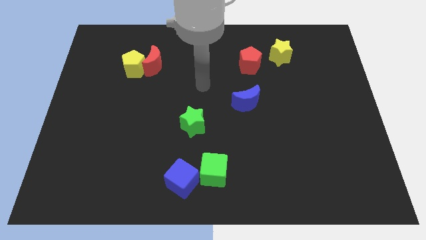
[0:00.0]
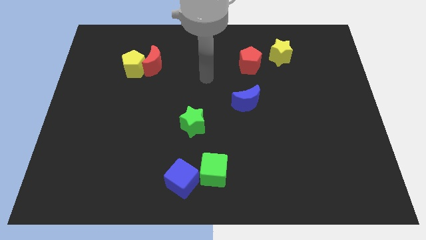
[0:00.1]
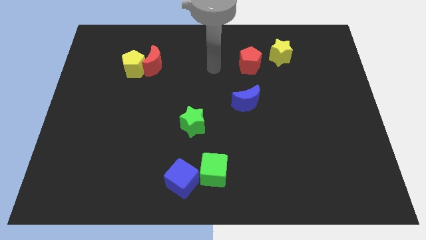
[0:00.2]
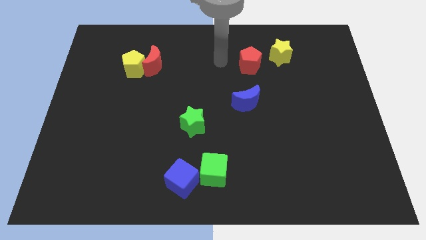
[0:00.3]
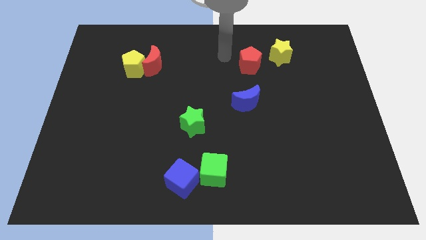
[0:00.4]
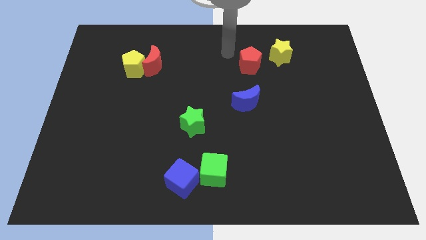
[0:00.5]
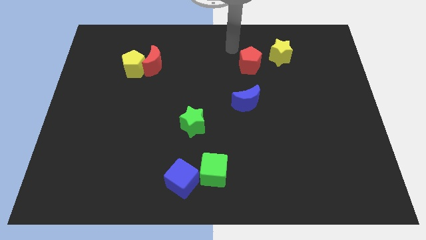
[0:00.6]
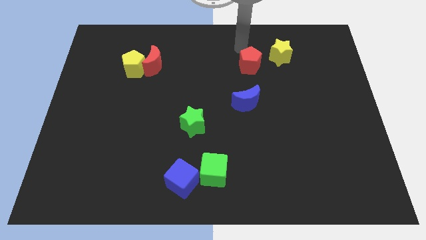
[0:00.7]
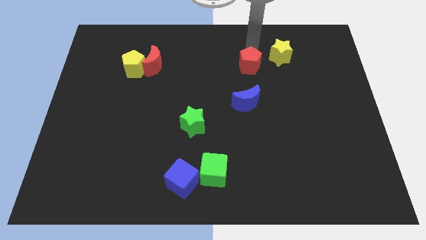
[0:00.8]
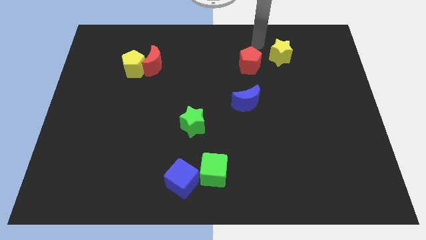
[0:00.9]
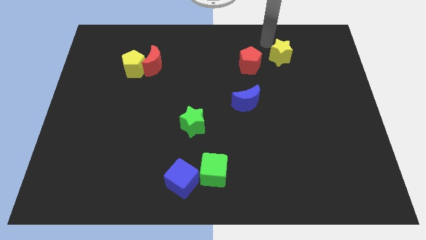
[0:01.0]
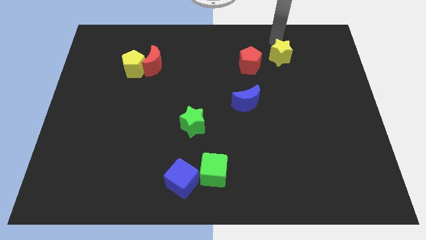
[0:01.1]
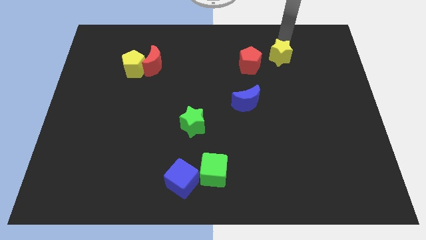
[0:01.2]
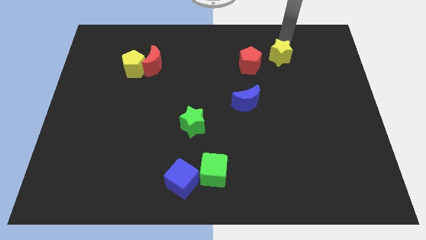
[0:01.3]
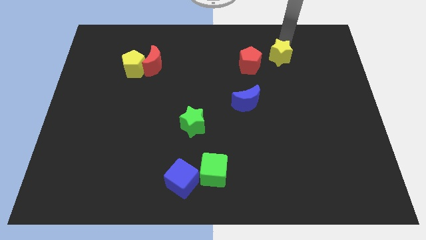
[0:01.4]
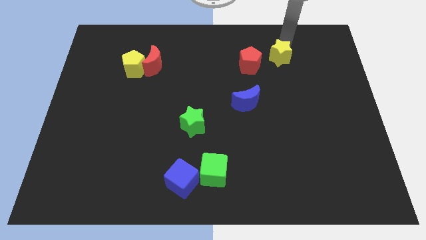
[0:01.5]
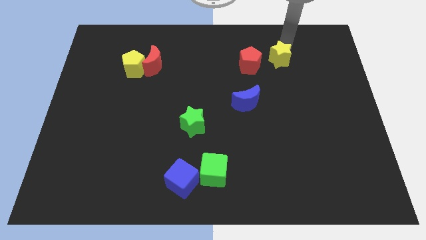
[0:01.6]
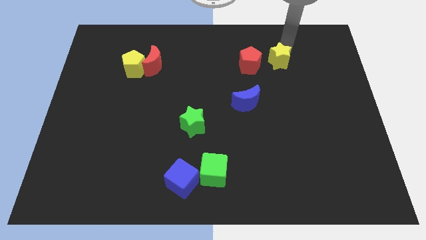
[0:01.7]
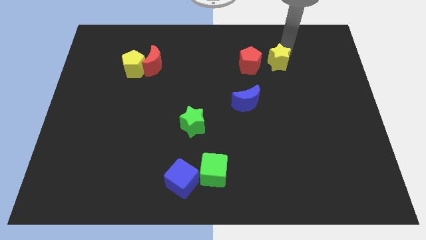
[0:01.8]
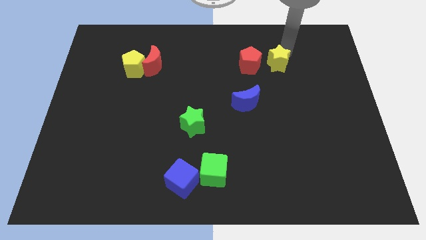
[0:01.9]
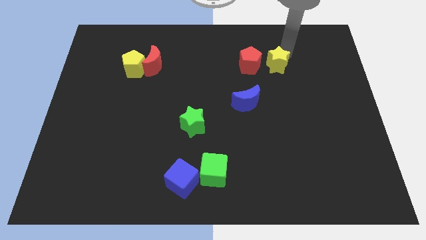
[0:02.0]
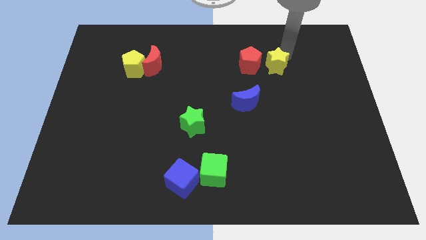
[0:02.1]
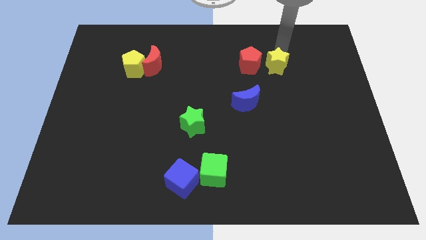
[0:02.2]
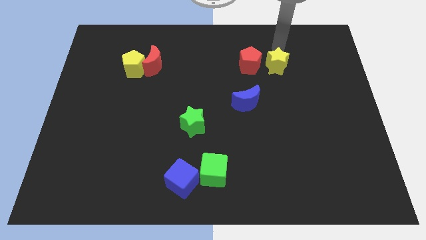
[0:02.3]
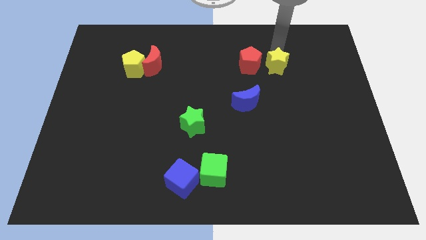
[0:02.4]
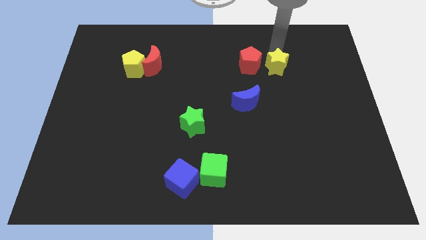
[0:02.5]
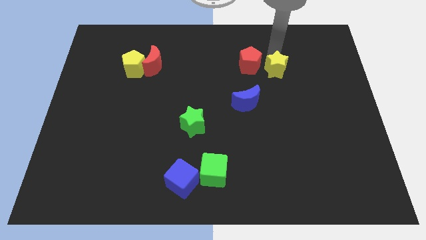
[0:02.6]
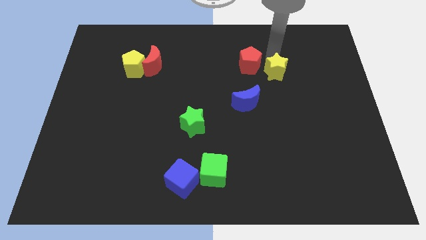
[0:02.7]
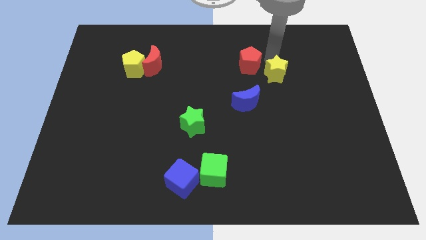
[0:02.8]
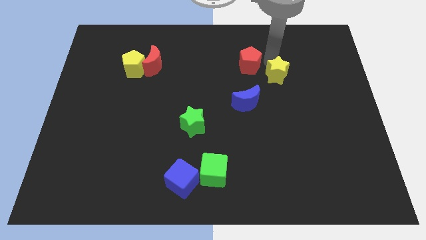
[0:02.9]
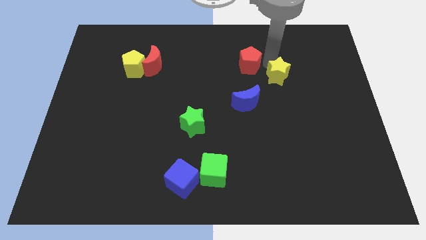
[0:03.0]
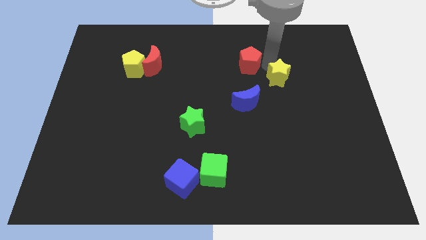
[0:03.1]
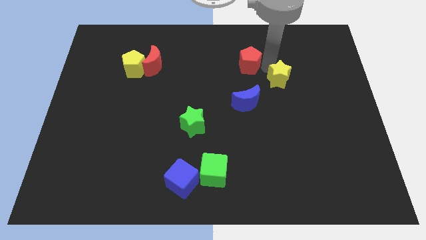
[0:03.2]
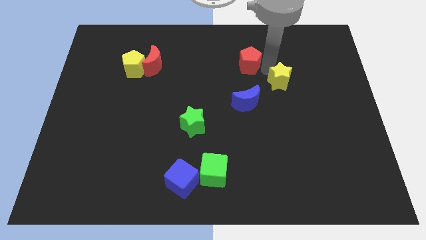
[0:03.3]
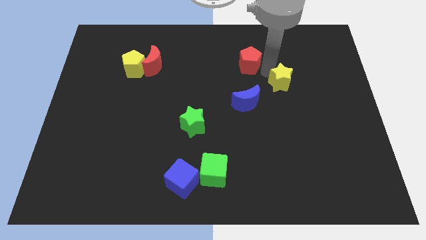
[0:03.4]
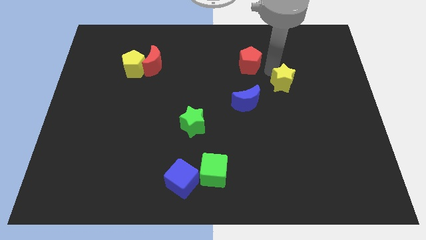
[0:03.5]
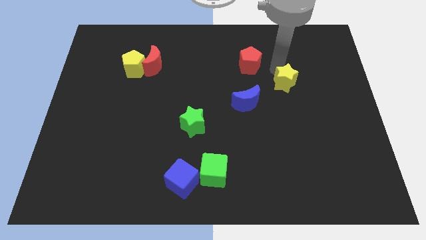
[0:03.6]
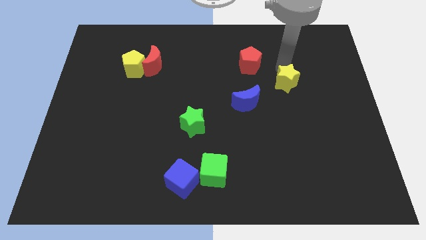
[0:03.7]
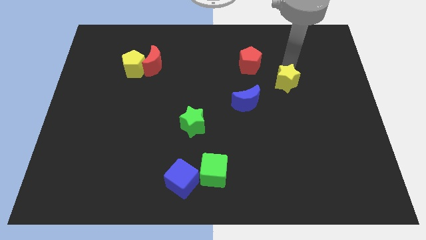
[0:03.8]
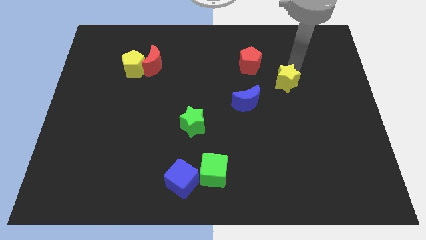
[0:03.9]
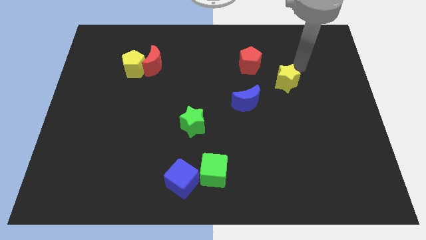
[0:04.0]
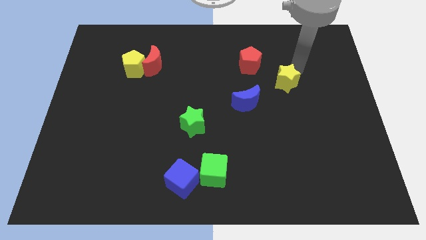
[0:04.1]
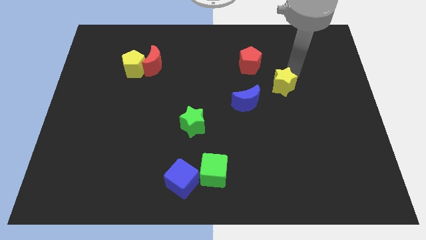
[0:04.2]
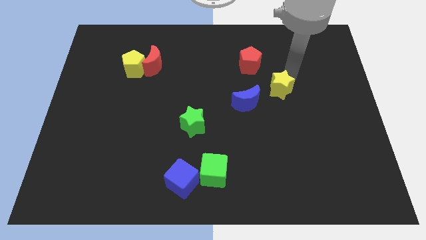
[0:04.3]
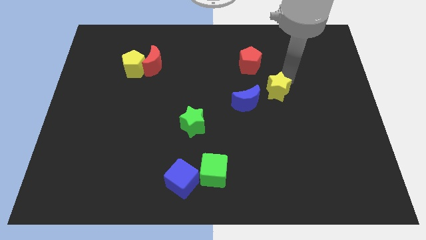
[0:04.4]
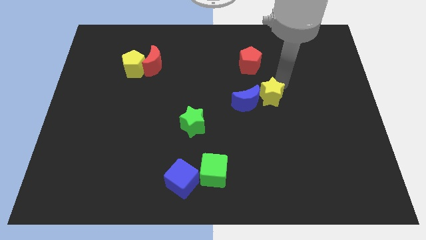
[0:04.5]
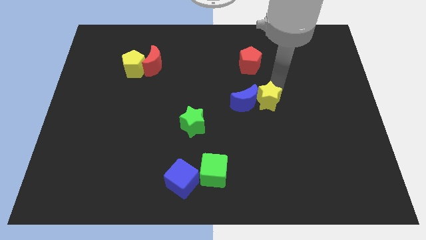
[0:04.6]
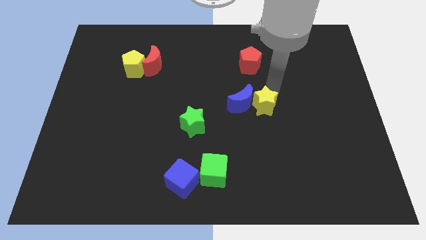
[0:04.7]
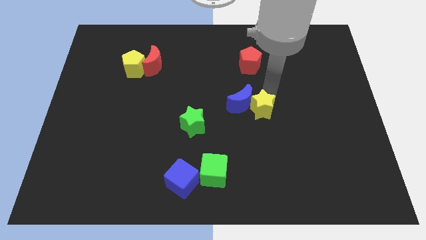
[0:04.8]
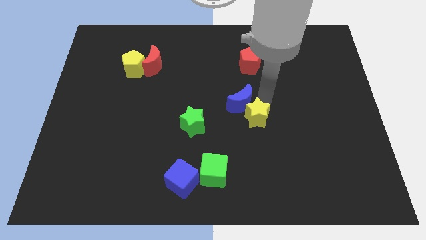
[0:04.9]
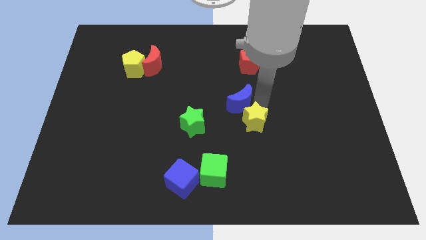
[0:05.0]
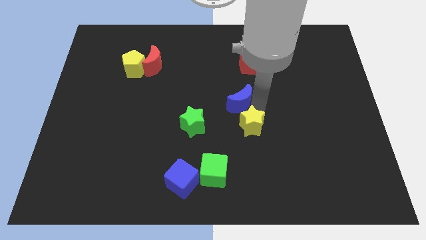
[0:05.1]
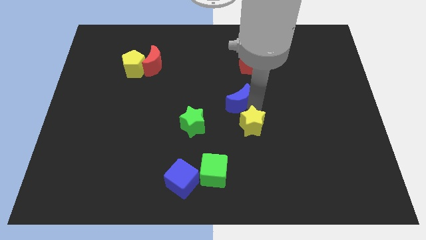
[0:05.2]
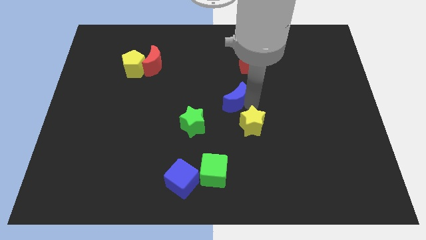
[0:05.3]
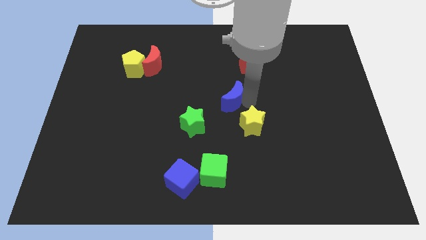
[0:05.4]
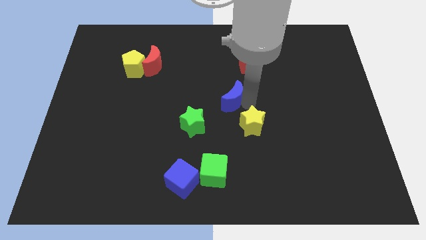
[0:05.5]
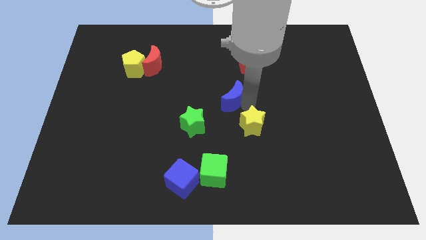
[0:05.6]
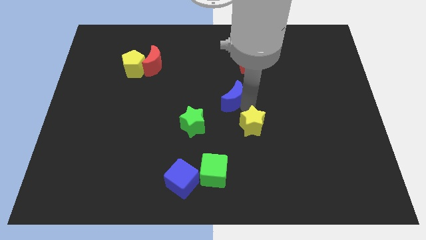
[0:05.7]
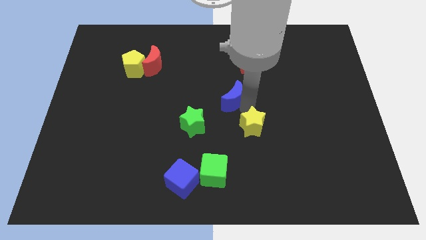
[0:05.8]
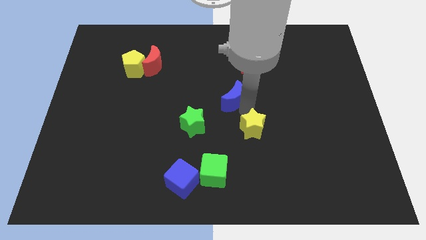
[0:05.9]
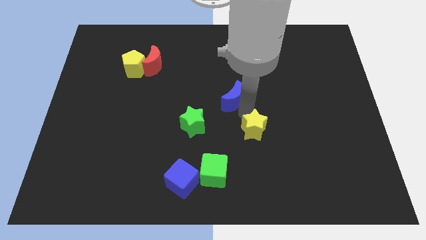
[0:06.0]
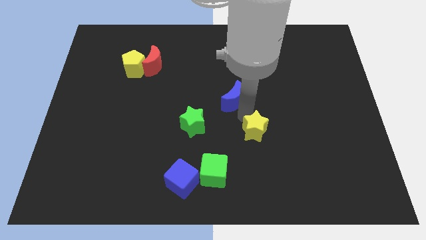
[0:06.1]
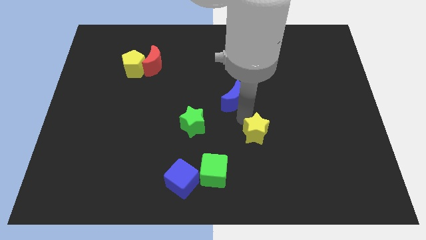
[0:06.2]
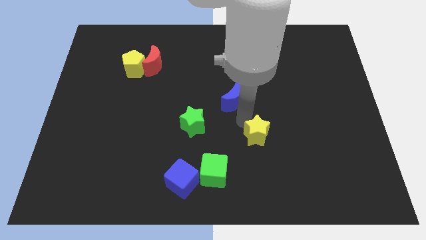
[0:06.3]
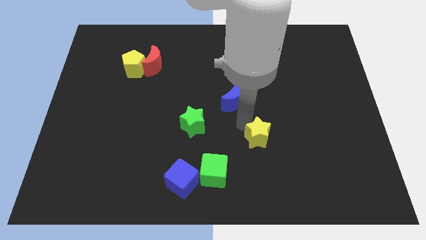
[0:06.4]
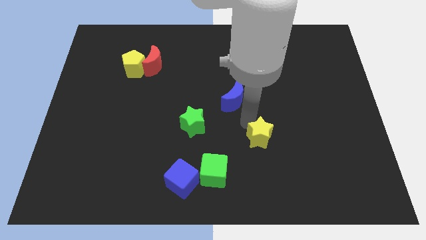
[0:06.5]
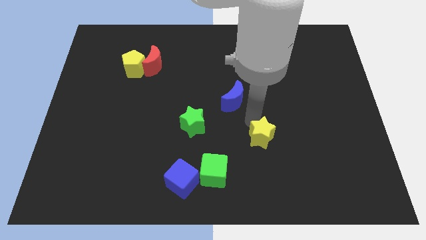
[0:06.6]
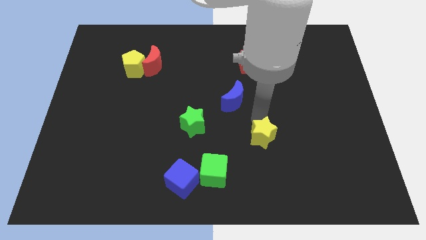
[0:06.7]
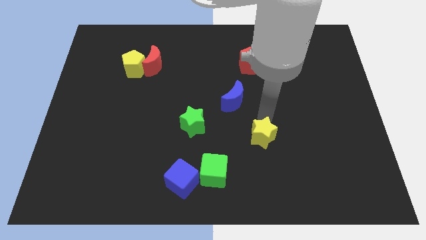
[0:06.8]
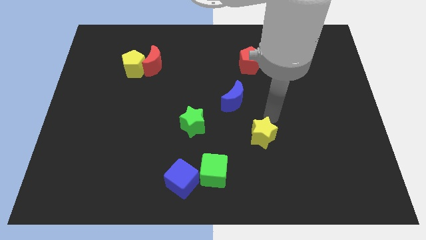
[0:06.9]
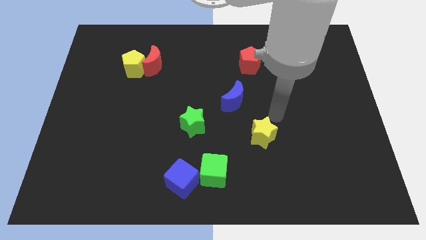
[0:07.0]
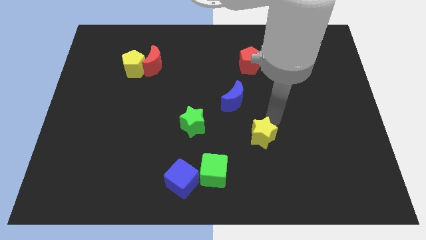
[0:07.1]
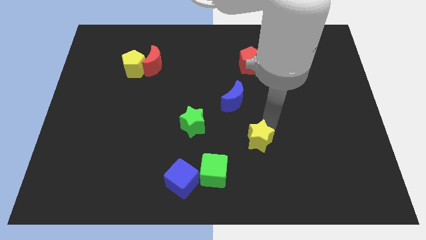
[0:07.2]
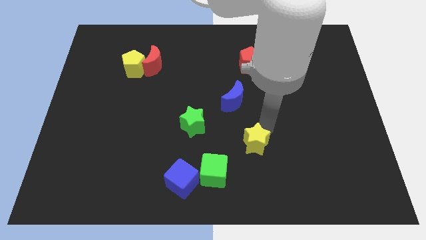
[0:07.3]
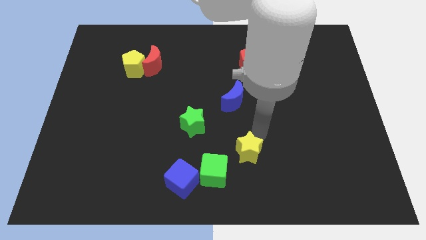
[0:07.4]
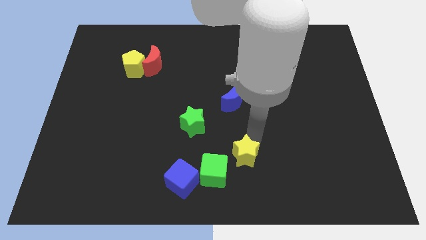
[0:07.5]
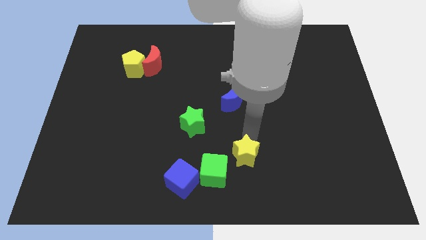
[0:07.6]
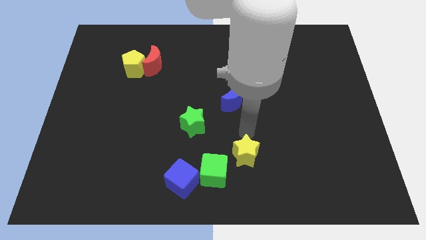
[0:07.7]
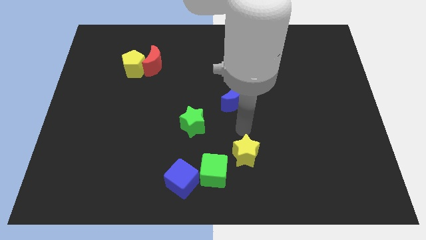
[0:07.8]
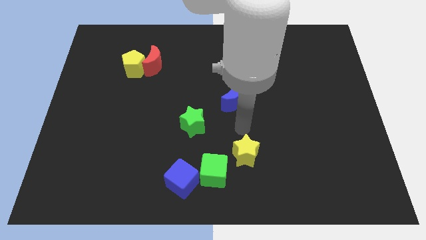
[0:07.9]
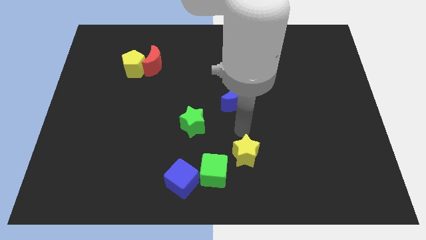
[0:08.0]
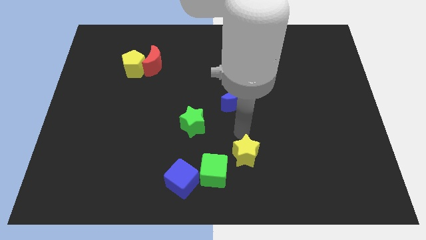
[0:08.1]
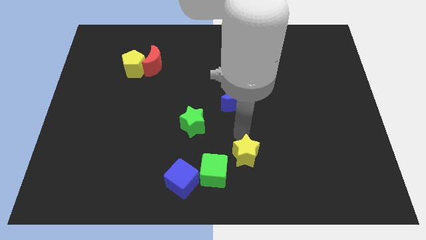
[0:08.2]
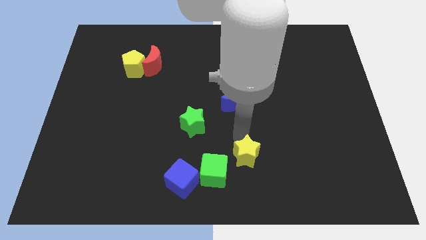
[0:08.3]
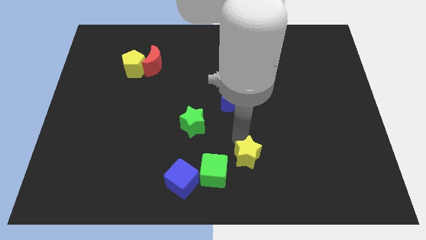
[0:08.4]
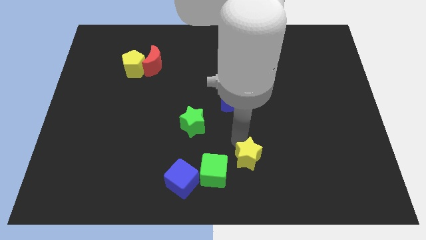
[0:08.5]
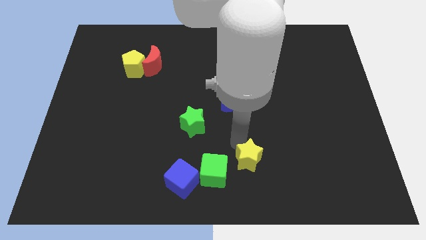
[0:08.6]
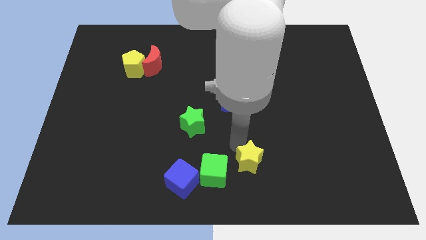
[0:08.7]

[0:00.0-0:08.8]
move the yellow star to the bottom side
